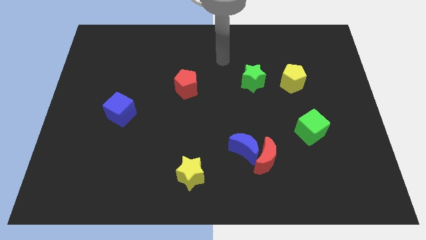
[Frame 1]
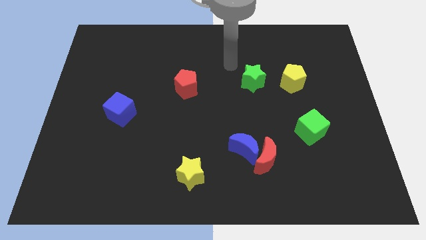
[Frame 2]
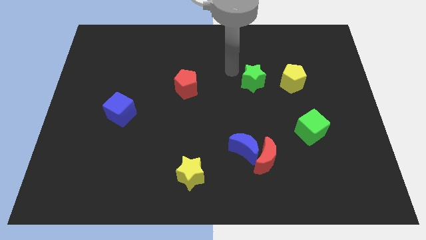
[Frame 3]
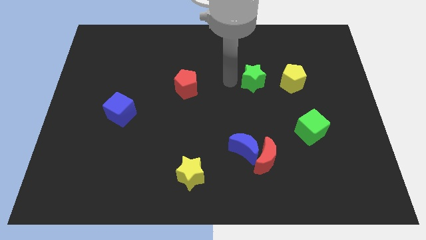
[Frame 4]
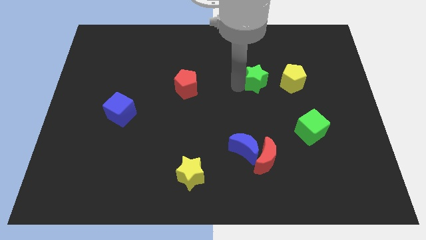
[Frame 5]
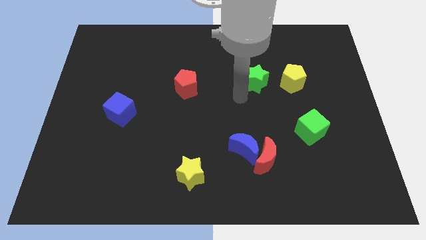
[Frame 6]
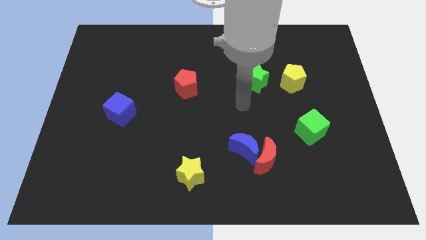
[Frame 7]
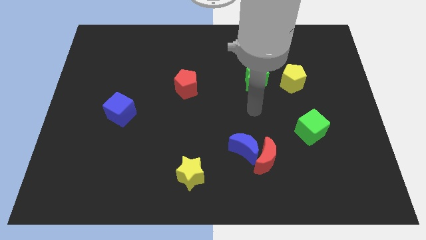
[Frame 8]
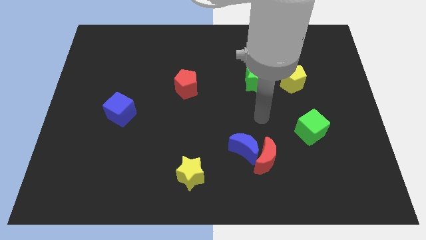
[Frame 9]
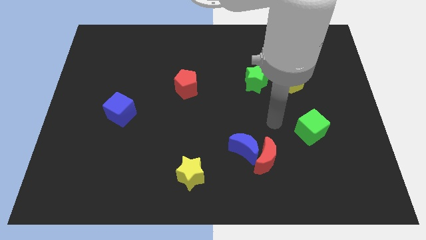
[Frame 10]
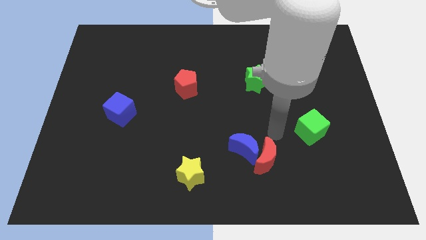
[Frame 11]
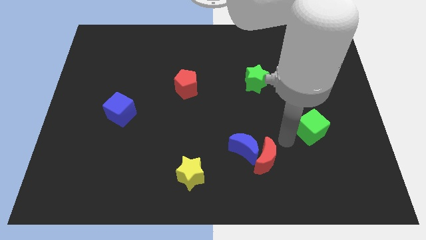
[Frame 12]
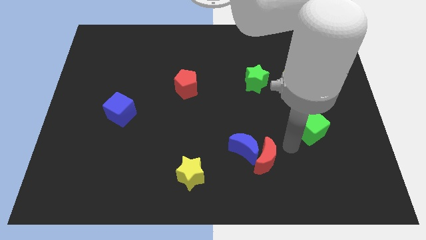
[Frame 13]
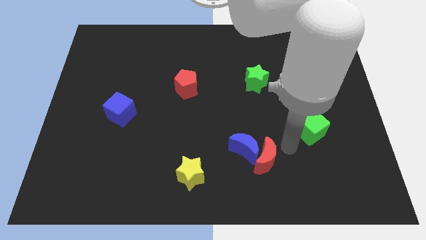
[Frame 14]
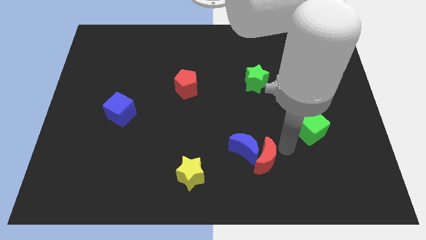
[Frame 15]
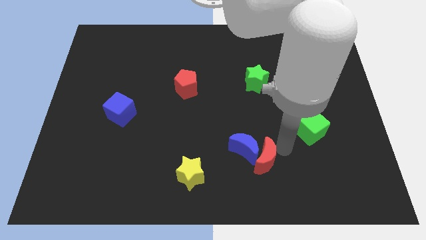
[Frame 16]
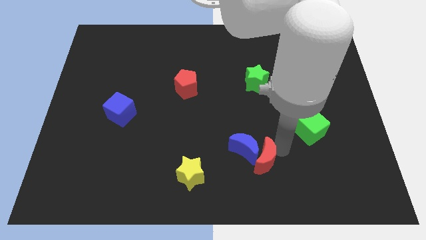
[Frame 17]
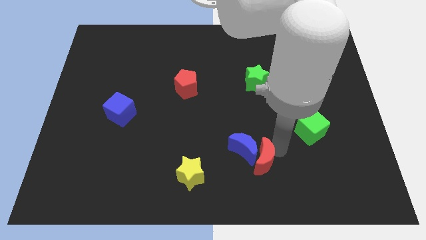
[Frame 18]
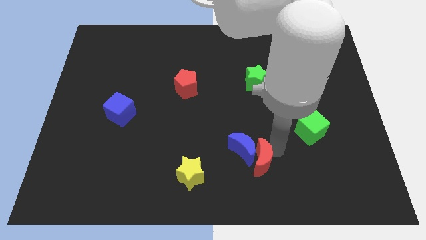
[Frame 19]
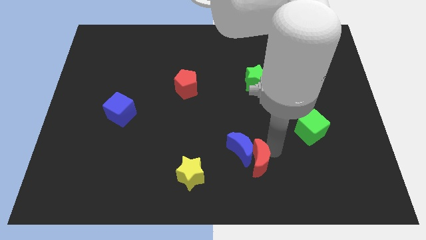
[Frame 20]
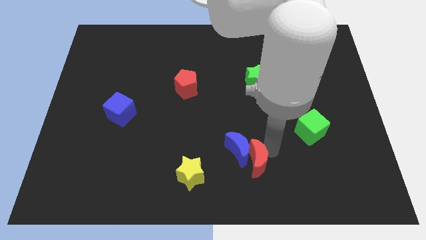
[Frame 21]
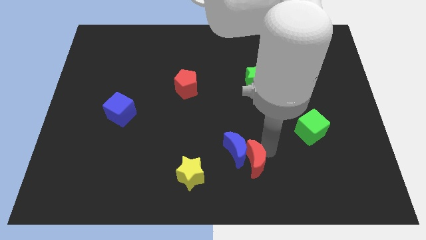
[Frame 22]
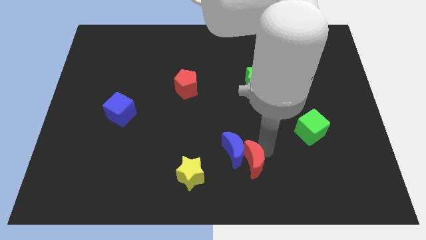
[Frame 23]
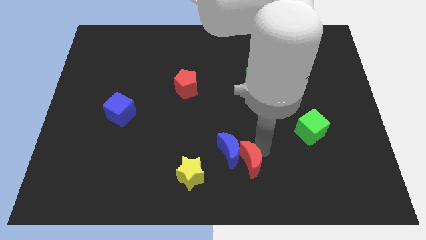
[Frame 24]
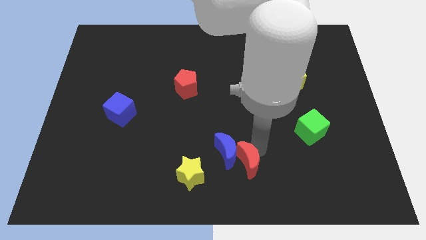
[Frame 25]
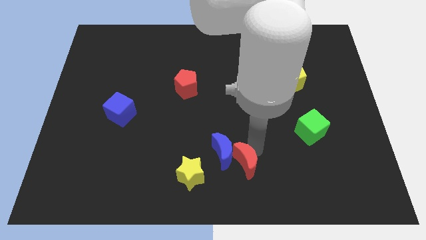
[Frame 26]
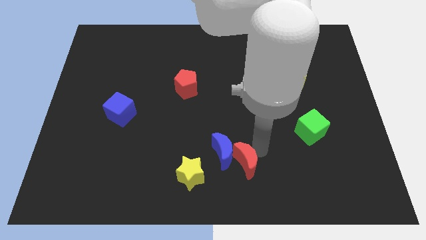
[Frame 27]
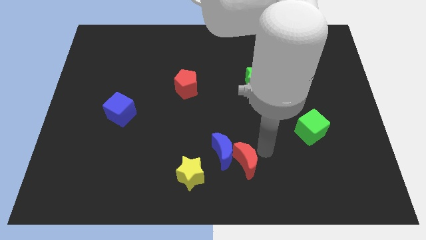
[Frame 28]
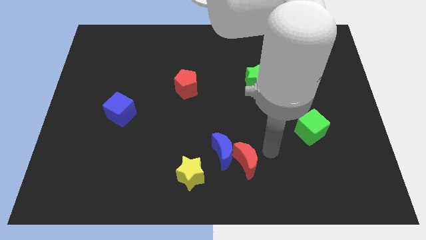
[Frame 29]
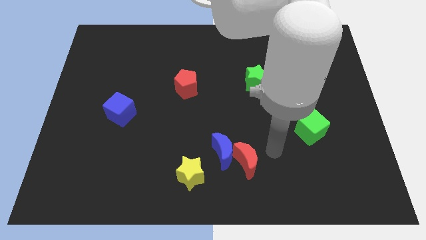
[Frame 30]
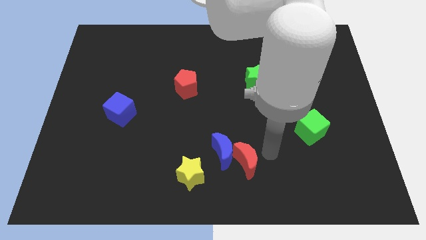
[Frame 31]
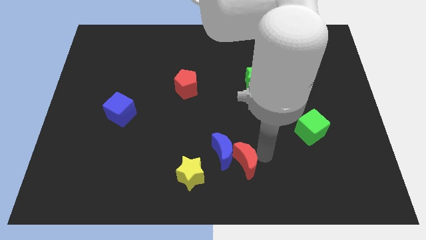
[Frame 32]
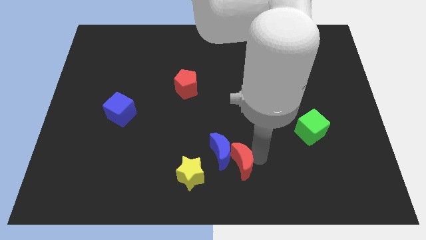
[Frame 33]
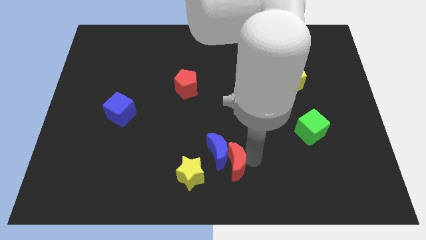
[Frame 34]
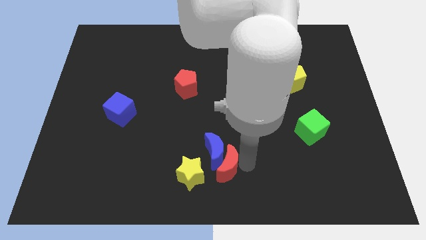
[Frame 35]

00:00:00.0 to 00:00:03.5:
slightly move the red moon left

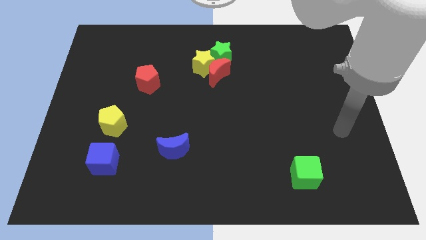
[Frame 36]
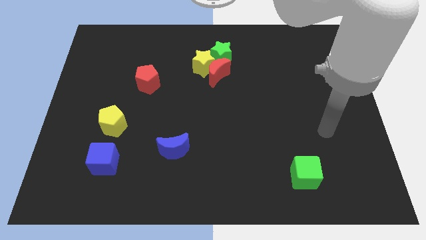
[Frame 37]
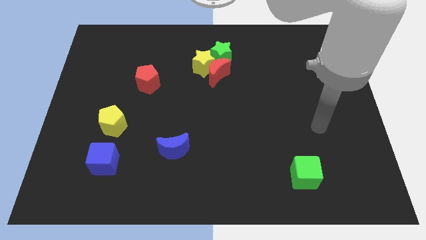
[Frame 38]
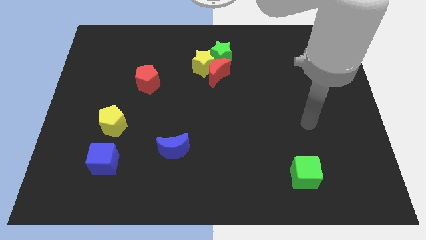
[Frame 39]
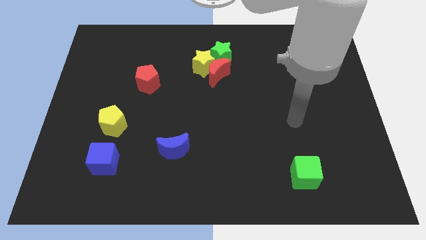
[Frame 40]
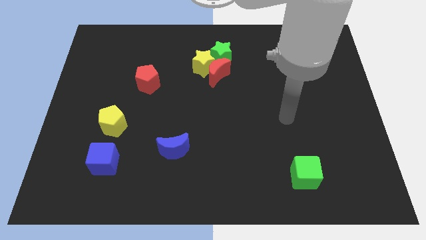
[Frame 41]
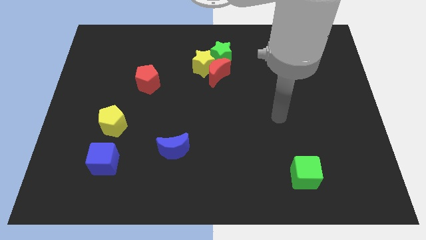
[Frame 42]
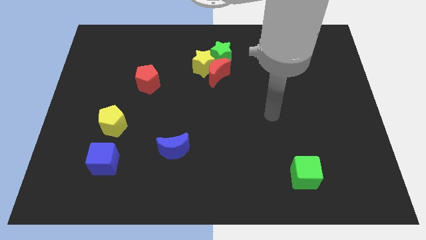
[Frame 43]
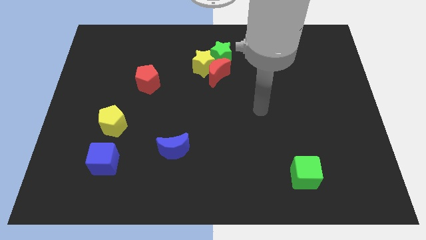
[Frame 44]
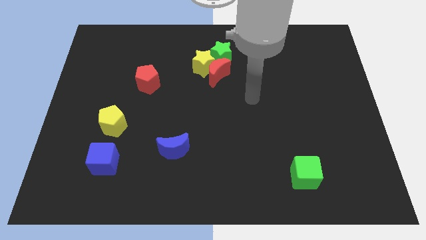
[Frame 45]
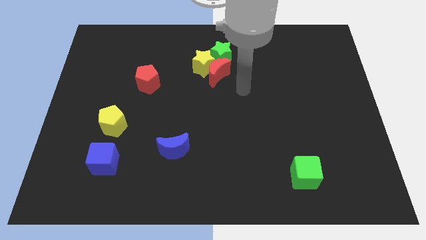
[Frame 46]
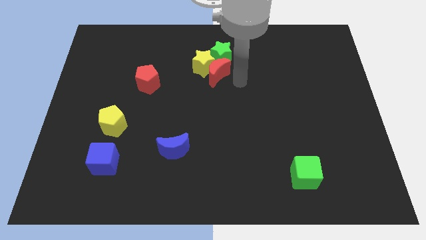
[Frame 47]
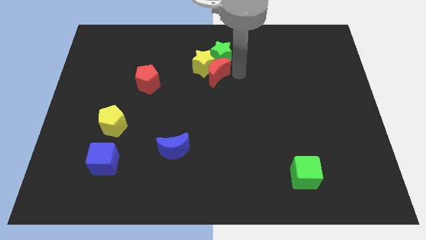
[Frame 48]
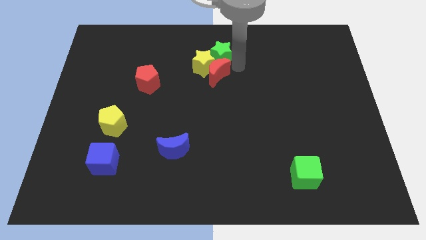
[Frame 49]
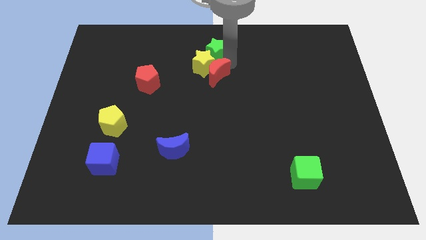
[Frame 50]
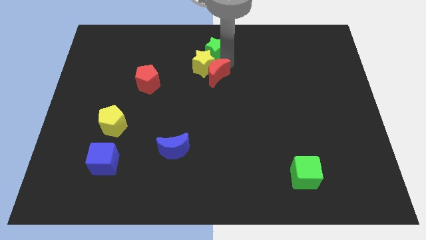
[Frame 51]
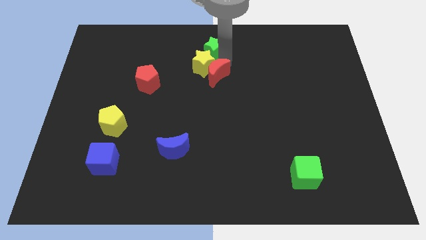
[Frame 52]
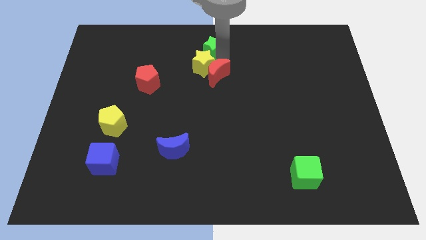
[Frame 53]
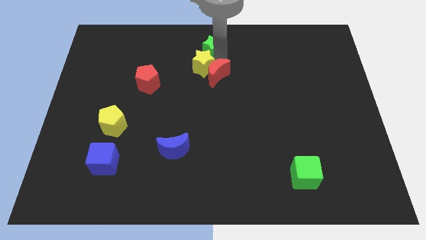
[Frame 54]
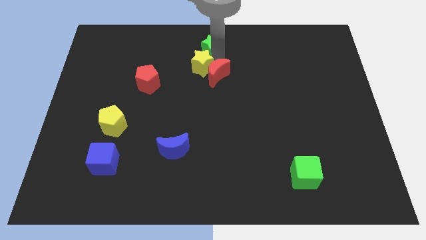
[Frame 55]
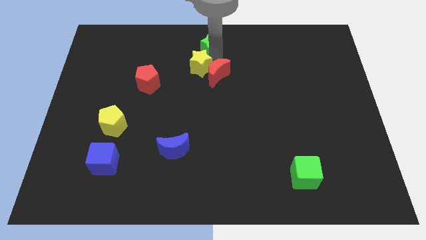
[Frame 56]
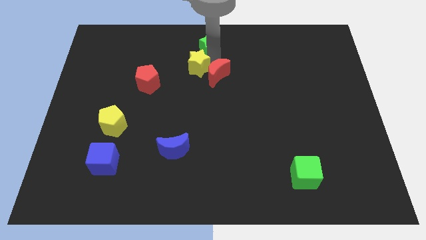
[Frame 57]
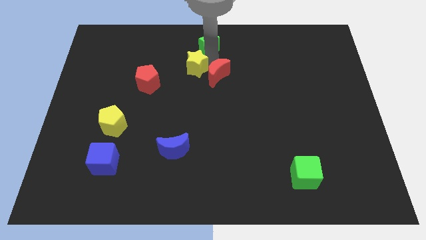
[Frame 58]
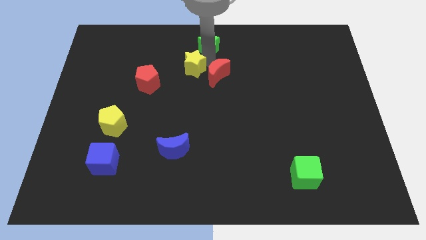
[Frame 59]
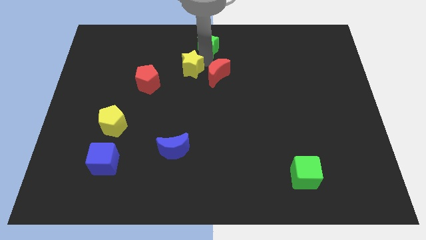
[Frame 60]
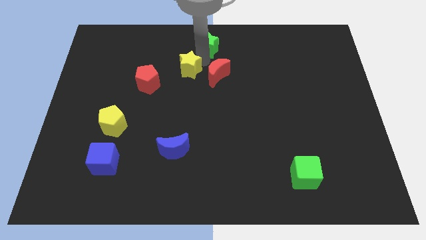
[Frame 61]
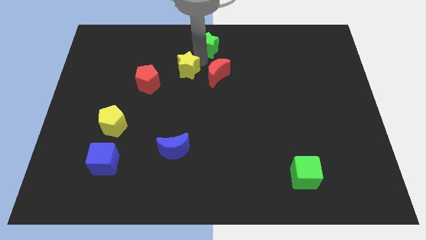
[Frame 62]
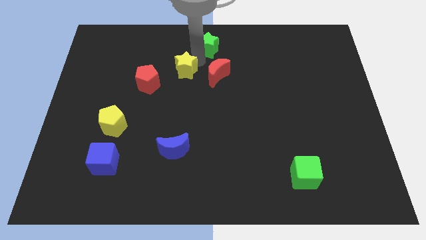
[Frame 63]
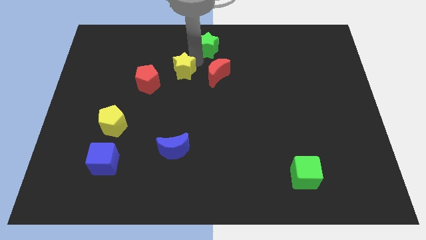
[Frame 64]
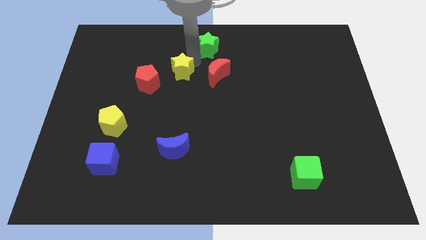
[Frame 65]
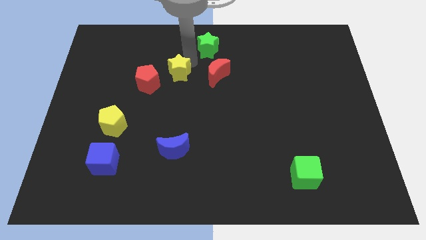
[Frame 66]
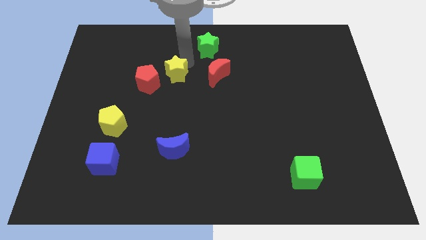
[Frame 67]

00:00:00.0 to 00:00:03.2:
slide the yellow star somewhat left

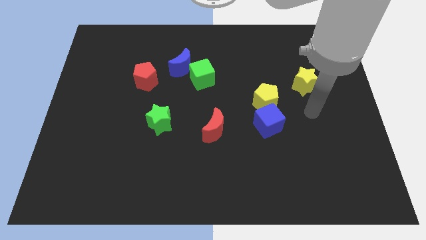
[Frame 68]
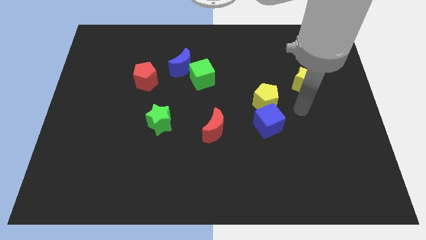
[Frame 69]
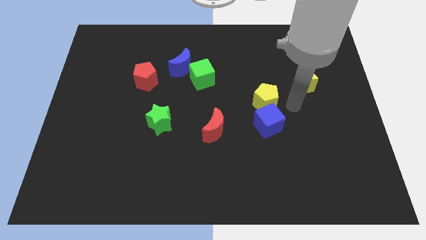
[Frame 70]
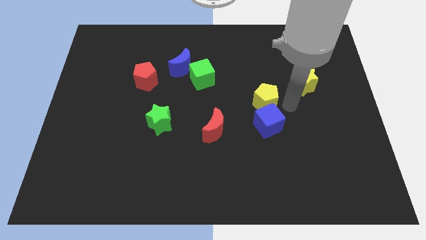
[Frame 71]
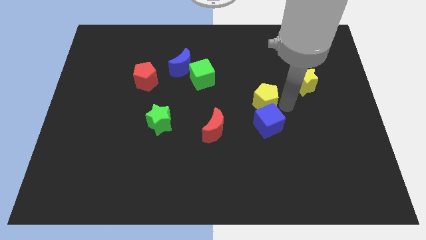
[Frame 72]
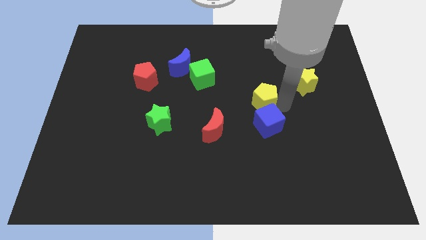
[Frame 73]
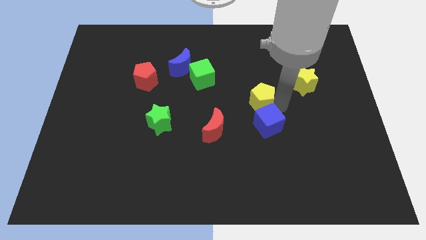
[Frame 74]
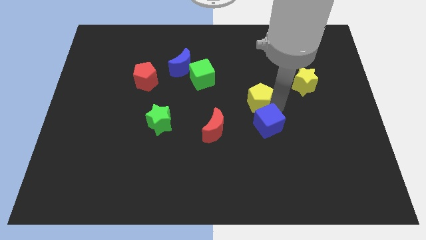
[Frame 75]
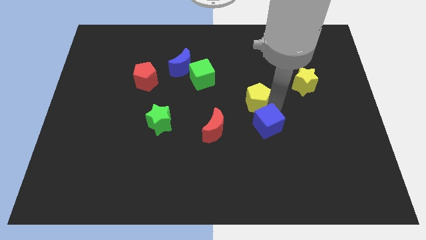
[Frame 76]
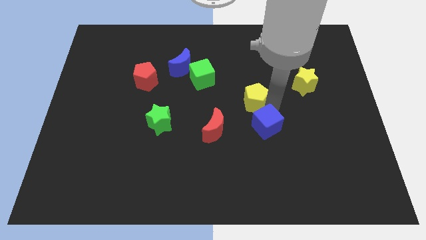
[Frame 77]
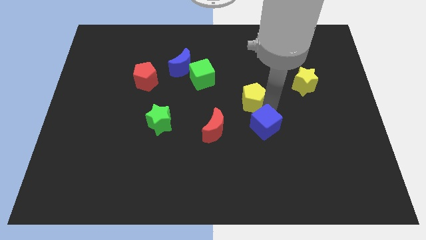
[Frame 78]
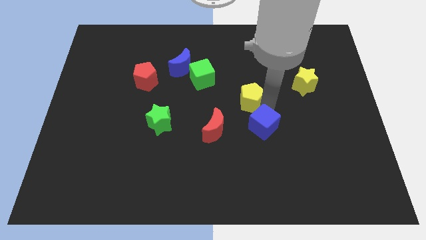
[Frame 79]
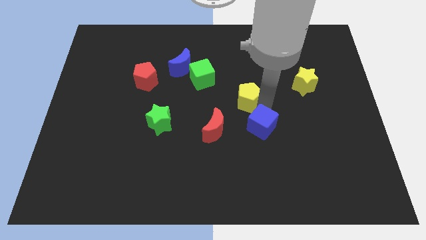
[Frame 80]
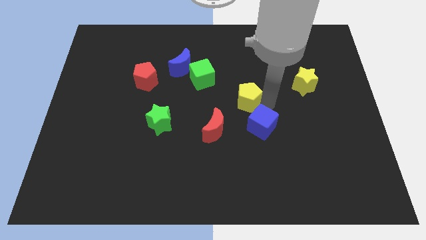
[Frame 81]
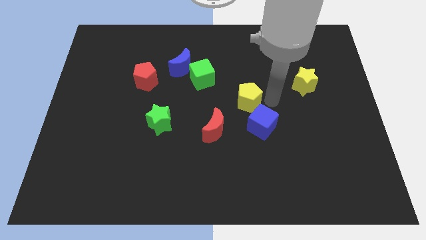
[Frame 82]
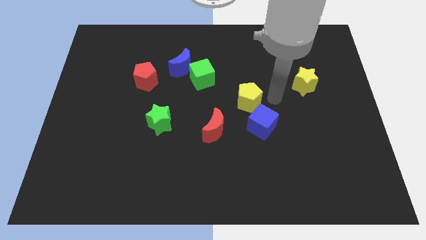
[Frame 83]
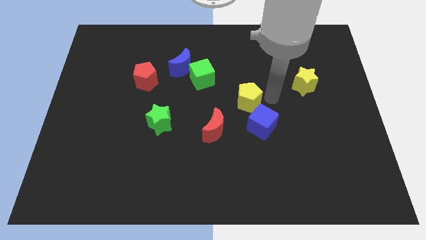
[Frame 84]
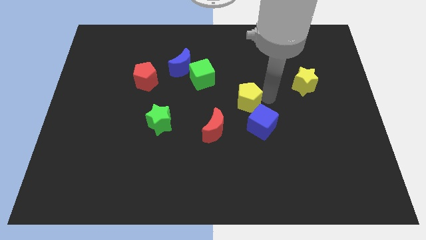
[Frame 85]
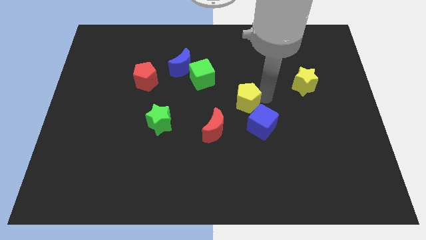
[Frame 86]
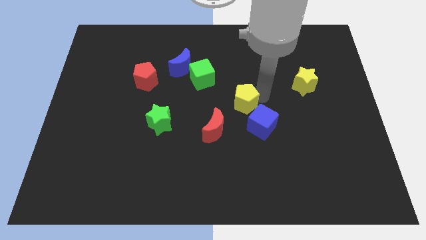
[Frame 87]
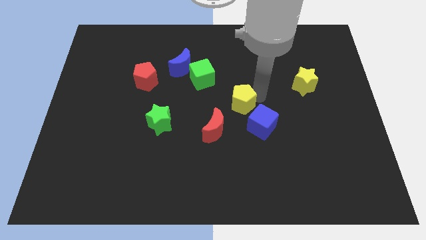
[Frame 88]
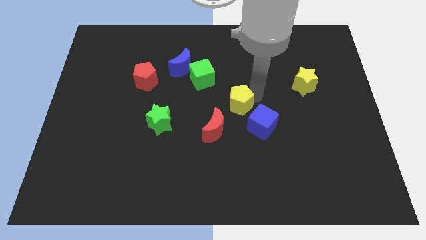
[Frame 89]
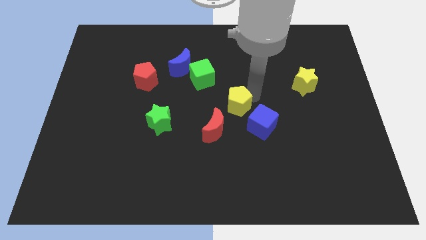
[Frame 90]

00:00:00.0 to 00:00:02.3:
push the yellow pentagon to the left a little
